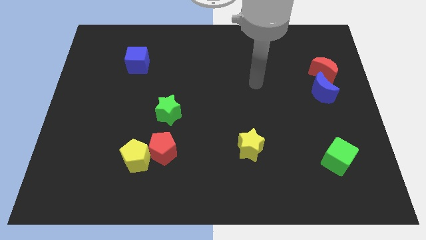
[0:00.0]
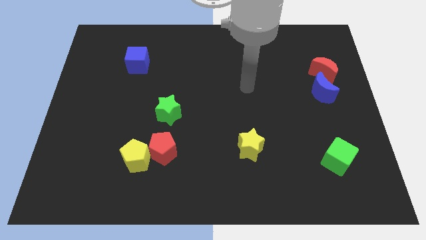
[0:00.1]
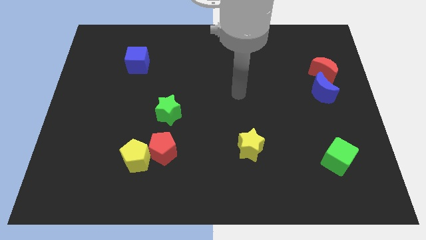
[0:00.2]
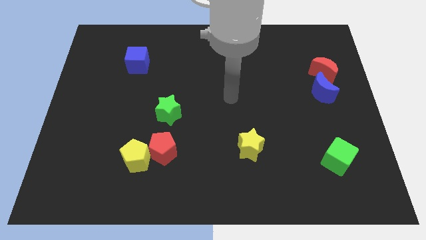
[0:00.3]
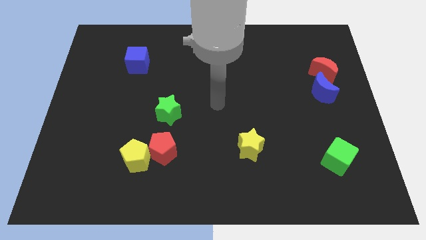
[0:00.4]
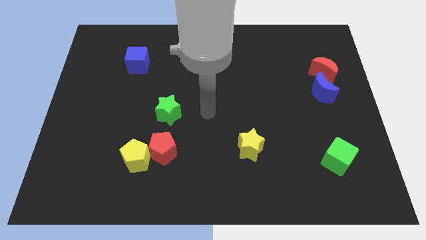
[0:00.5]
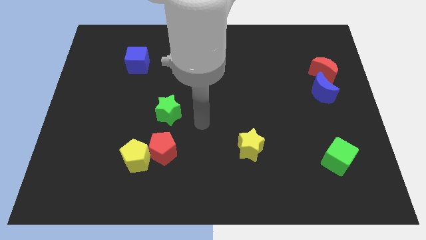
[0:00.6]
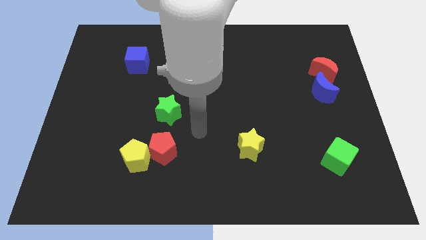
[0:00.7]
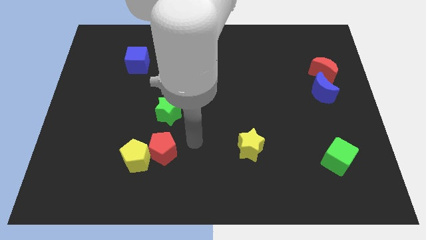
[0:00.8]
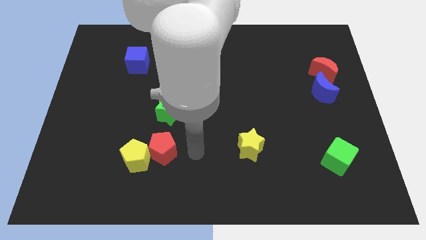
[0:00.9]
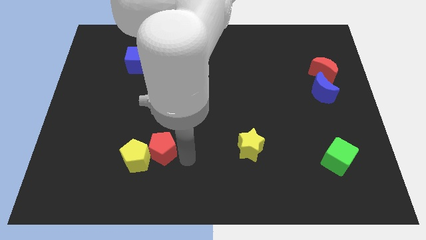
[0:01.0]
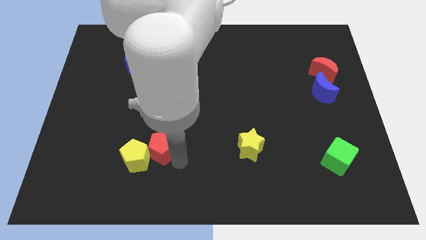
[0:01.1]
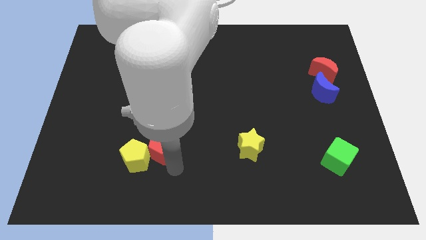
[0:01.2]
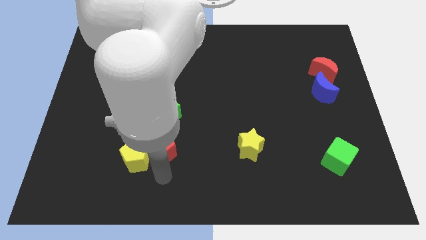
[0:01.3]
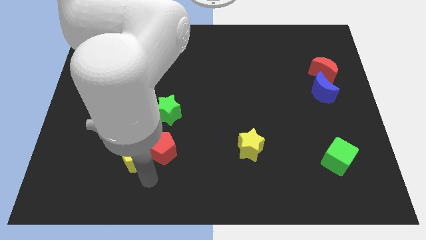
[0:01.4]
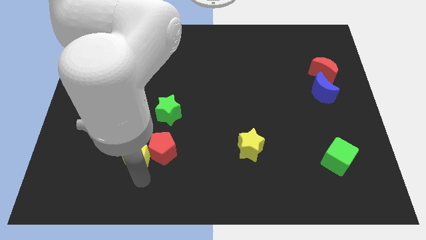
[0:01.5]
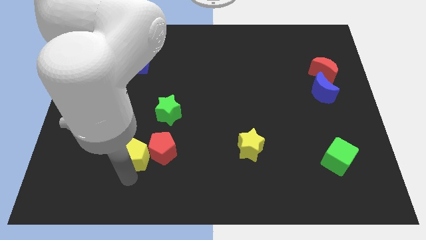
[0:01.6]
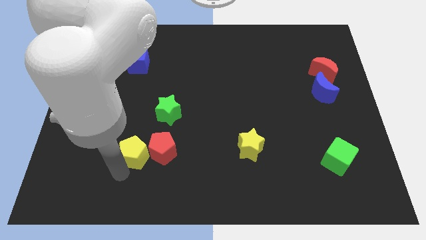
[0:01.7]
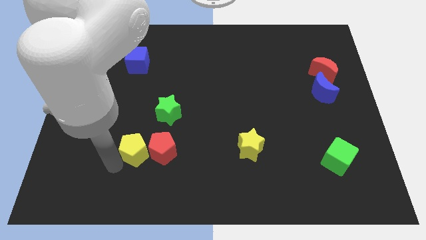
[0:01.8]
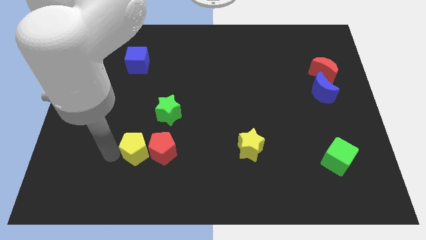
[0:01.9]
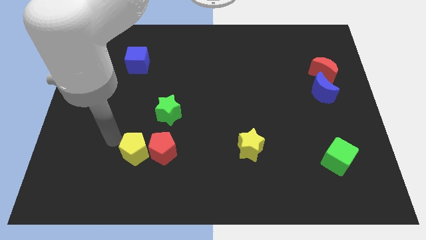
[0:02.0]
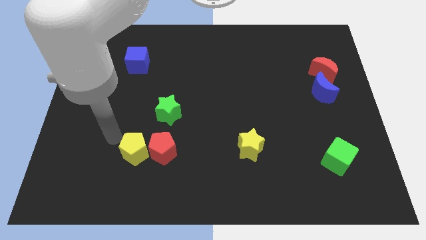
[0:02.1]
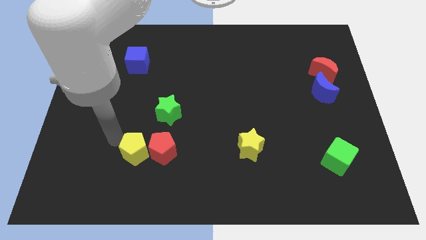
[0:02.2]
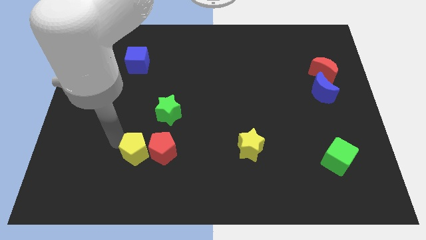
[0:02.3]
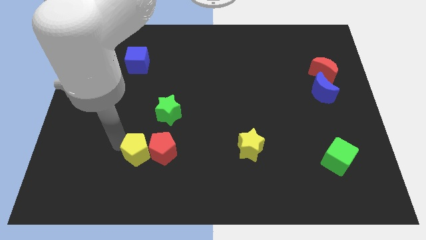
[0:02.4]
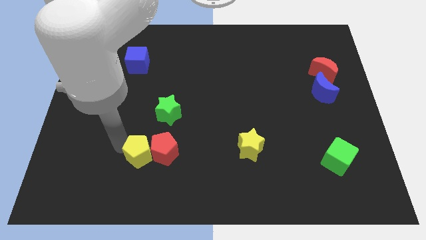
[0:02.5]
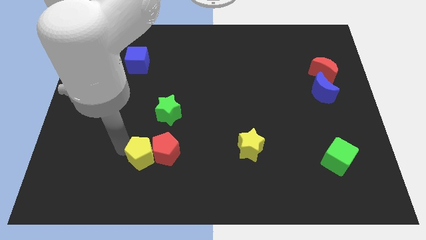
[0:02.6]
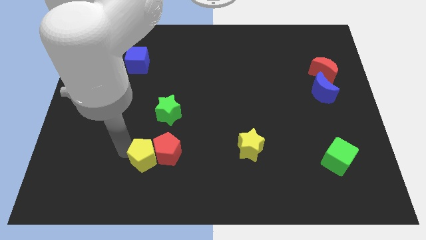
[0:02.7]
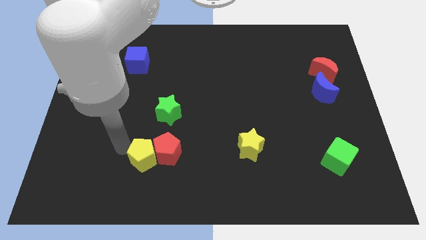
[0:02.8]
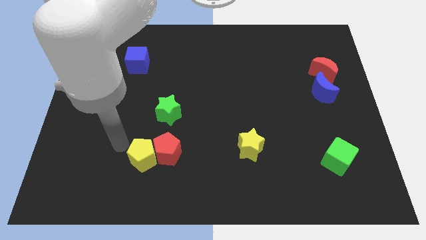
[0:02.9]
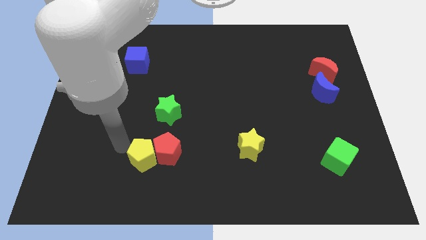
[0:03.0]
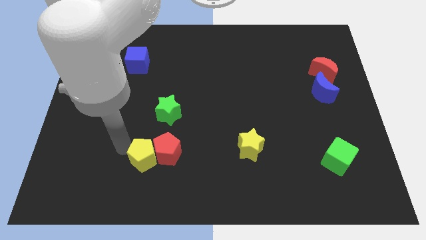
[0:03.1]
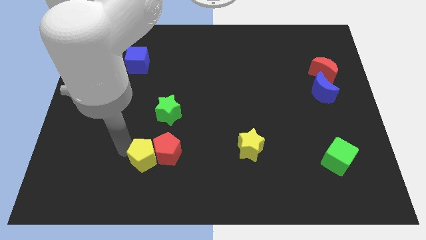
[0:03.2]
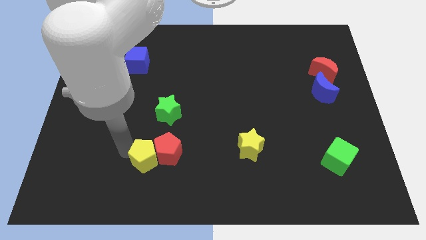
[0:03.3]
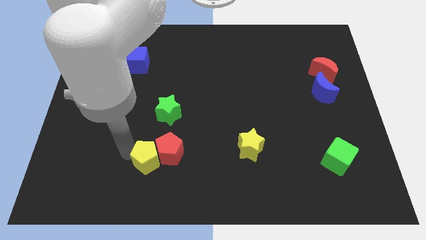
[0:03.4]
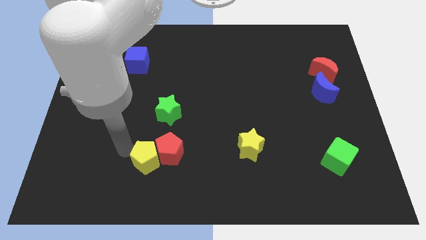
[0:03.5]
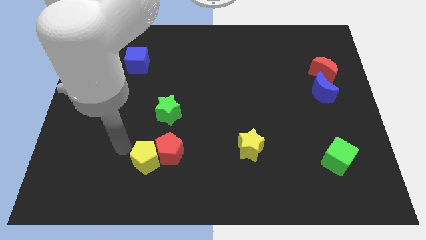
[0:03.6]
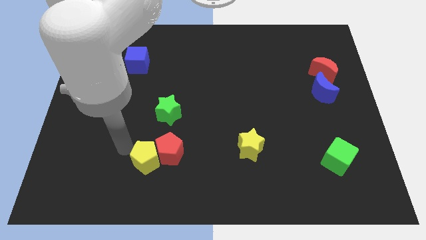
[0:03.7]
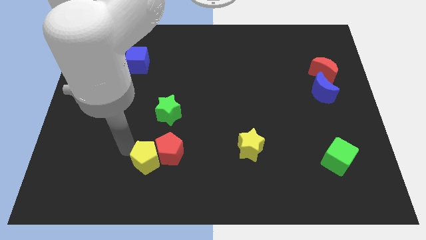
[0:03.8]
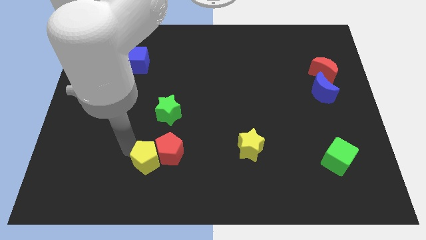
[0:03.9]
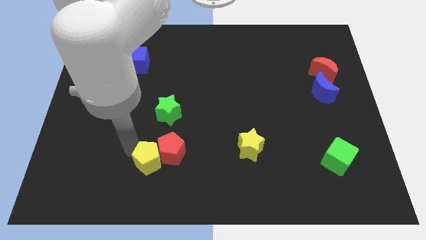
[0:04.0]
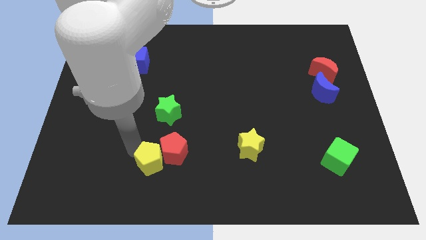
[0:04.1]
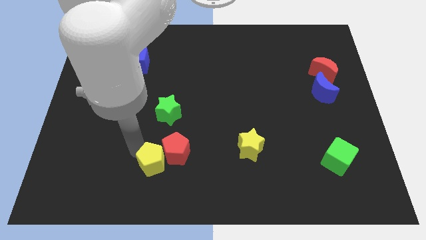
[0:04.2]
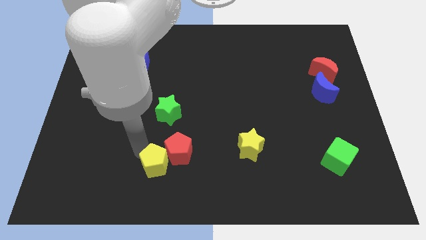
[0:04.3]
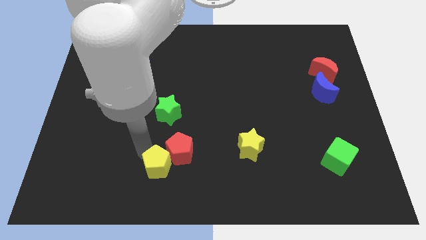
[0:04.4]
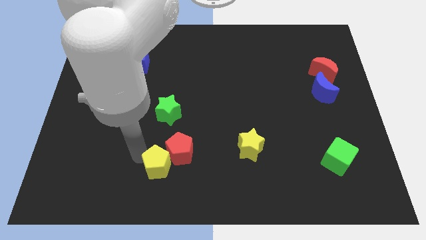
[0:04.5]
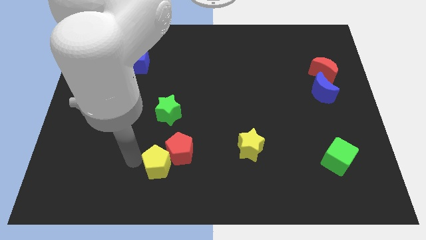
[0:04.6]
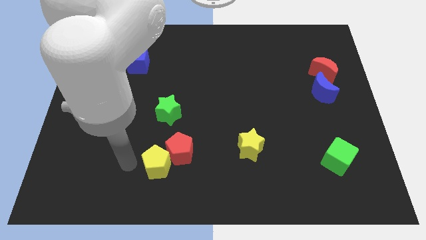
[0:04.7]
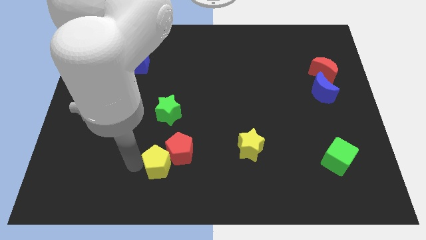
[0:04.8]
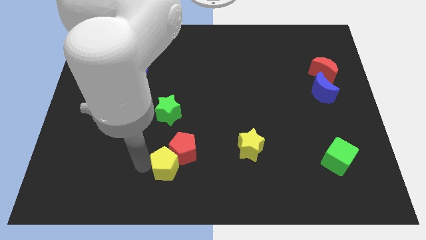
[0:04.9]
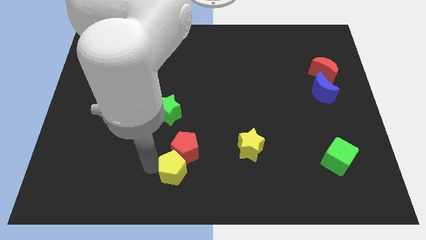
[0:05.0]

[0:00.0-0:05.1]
slide the yellow pentagon a little bit to the right

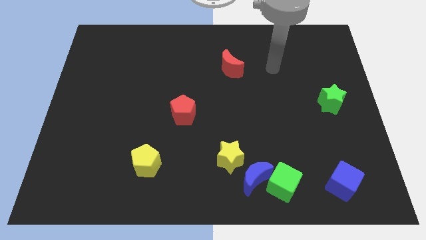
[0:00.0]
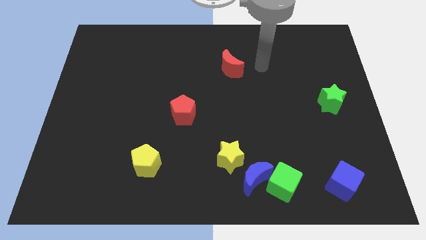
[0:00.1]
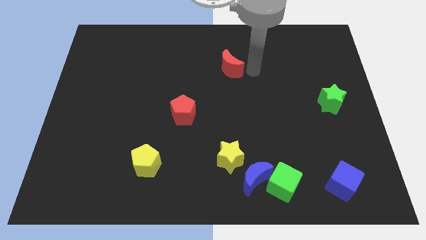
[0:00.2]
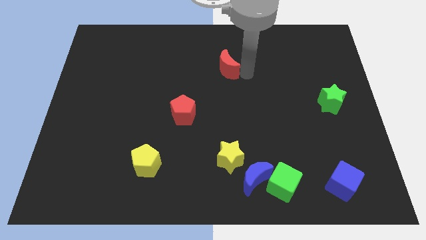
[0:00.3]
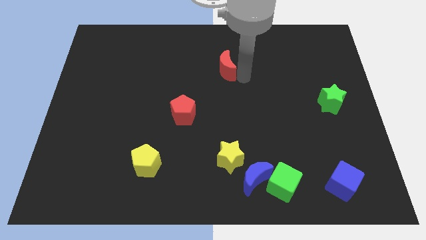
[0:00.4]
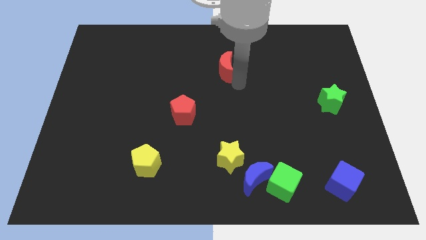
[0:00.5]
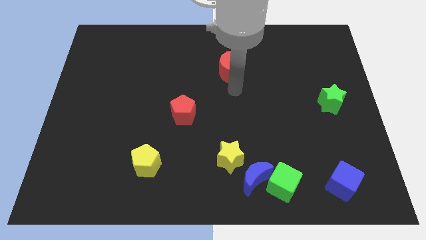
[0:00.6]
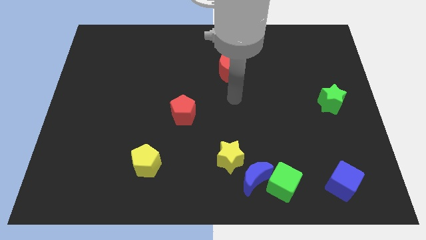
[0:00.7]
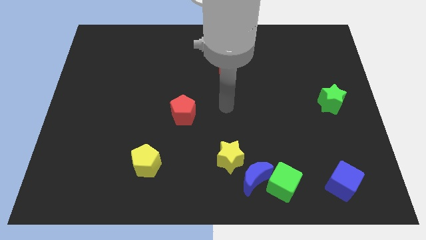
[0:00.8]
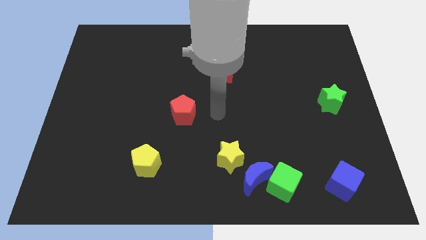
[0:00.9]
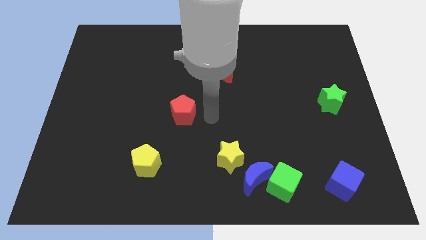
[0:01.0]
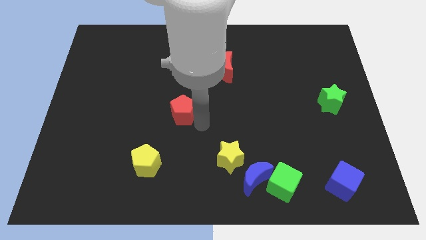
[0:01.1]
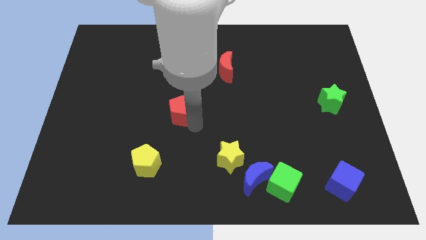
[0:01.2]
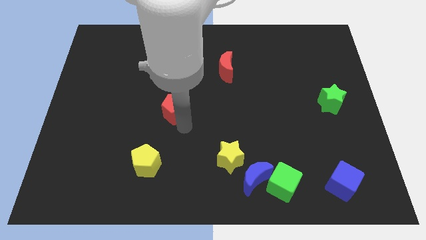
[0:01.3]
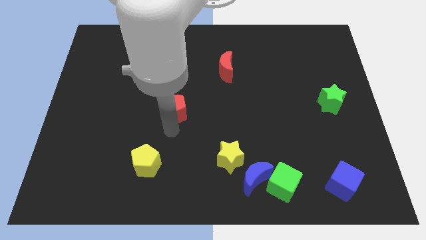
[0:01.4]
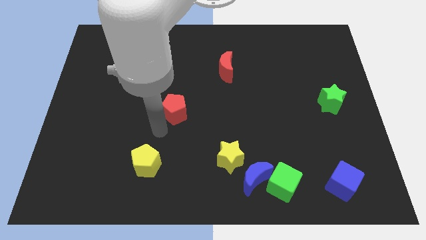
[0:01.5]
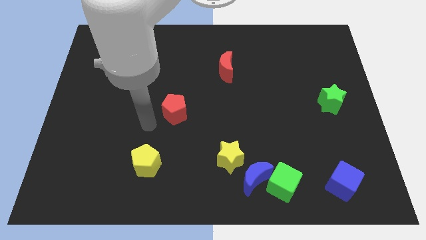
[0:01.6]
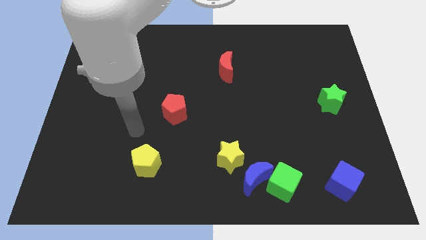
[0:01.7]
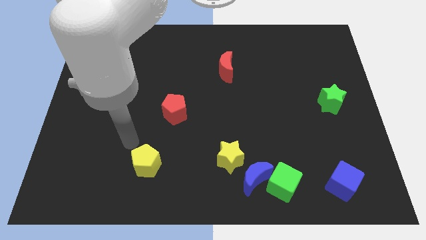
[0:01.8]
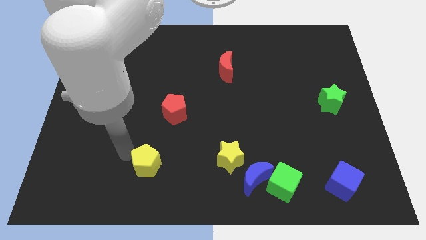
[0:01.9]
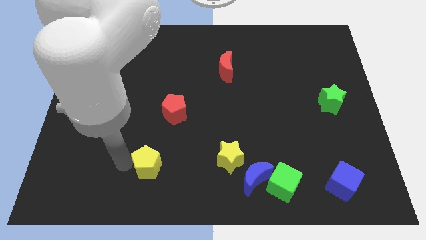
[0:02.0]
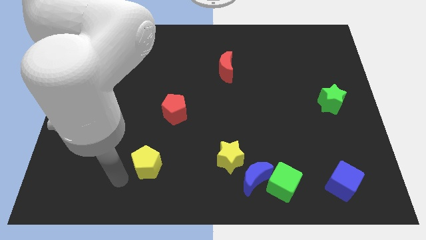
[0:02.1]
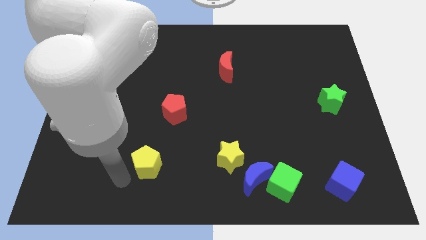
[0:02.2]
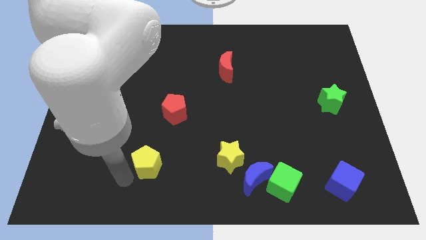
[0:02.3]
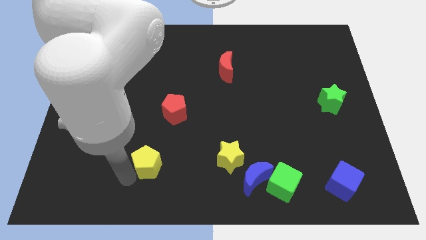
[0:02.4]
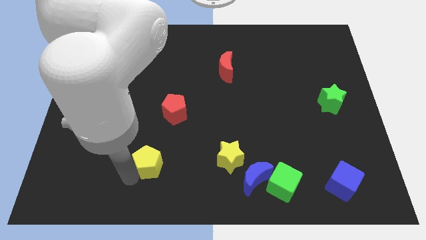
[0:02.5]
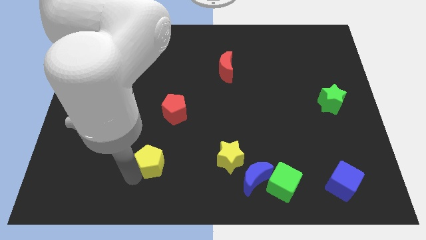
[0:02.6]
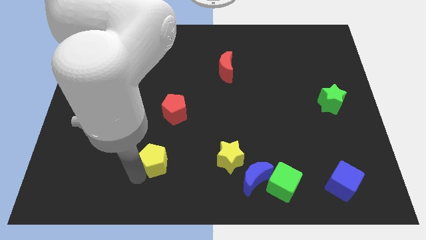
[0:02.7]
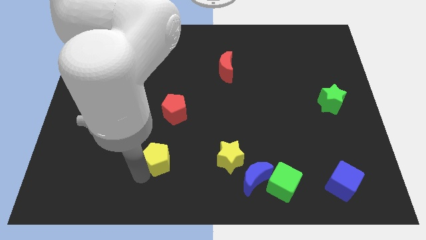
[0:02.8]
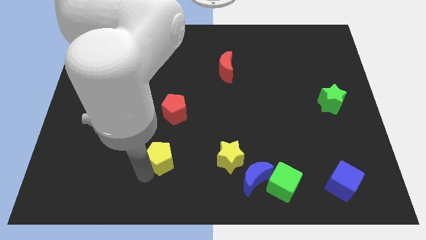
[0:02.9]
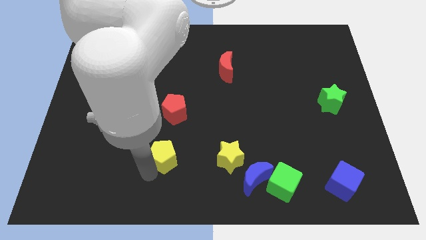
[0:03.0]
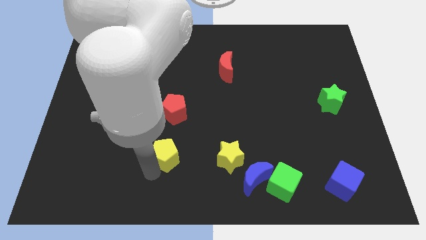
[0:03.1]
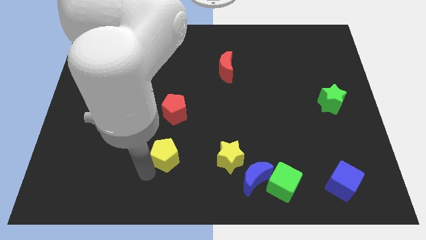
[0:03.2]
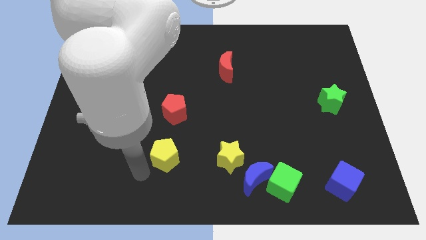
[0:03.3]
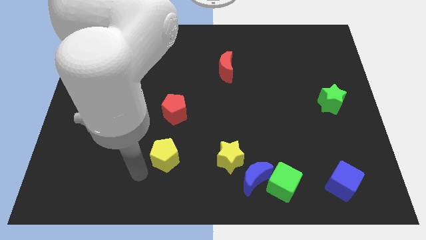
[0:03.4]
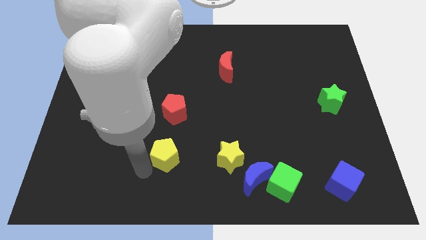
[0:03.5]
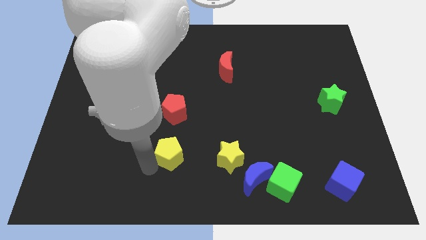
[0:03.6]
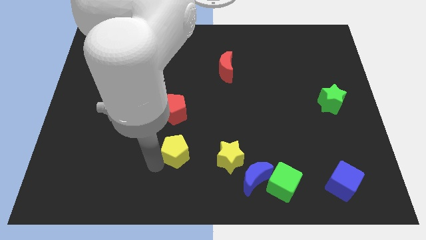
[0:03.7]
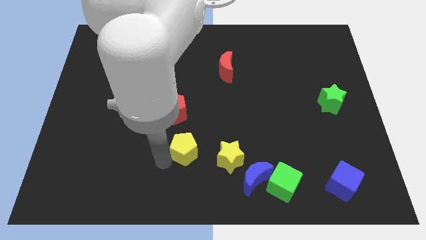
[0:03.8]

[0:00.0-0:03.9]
slide the yellow pentagon up and right a bit
